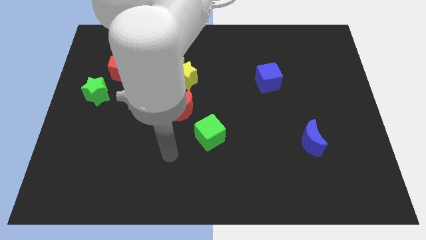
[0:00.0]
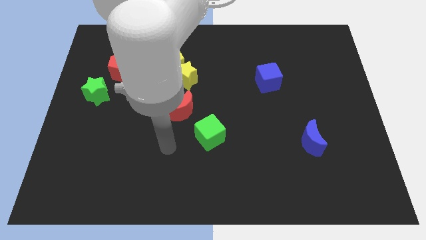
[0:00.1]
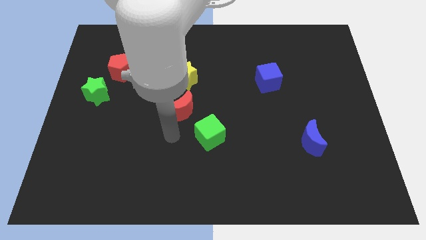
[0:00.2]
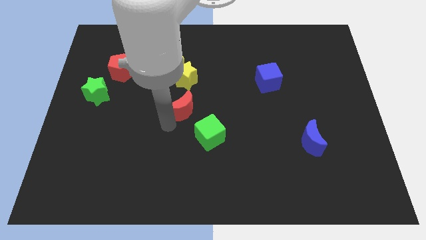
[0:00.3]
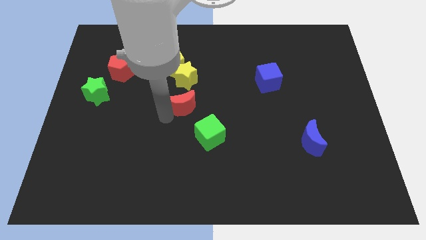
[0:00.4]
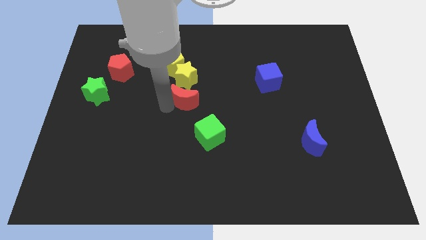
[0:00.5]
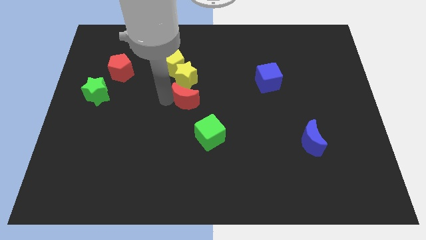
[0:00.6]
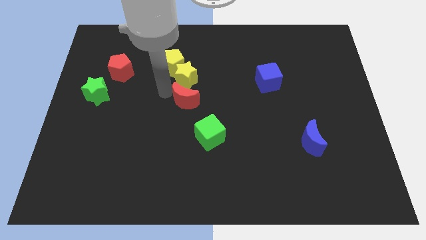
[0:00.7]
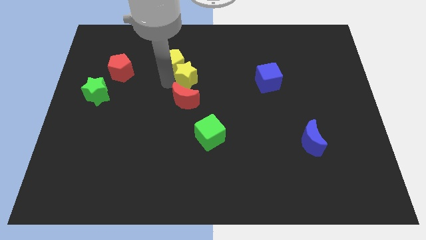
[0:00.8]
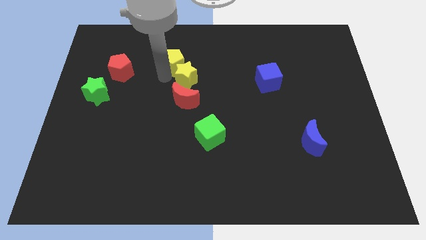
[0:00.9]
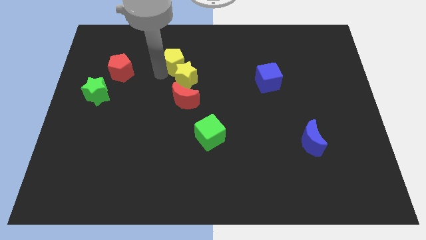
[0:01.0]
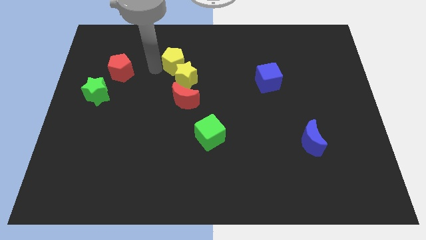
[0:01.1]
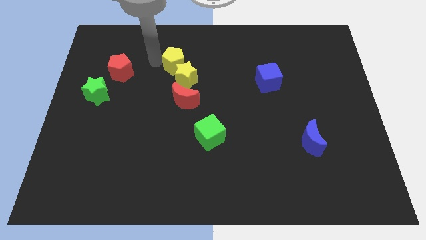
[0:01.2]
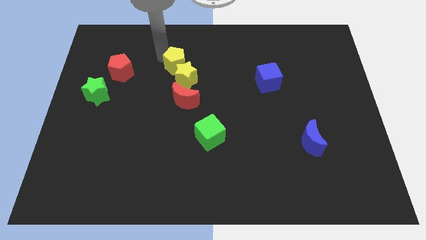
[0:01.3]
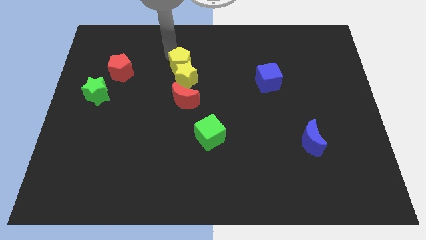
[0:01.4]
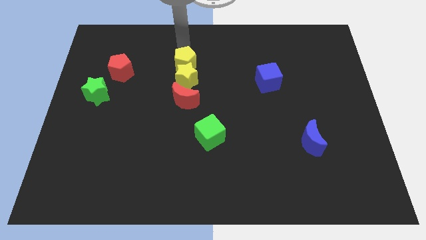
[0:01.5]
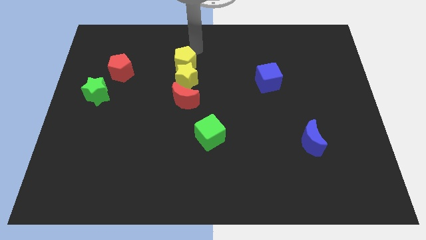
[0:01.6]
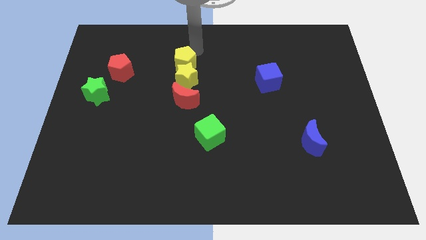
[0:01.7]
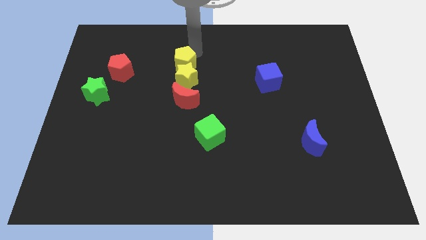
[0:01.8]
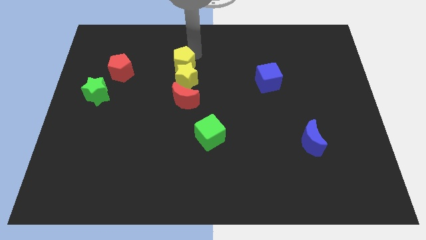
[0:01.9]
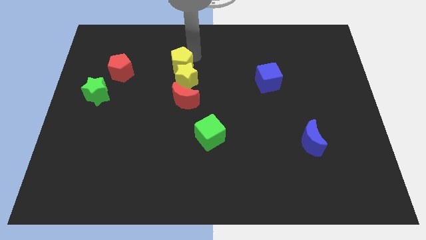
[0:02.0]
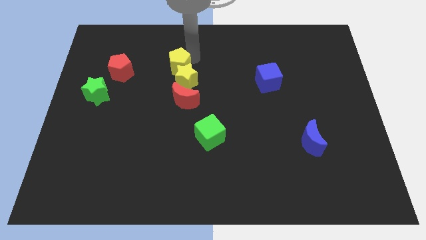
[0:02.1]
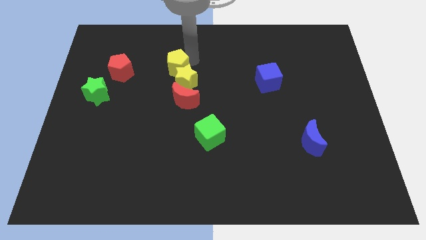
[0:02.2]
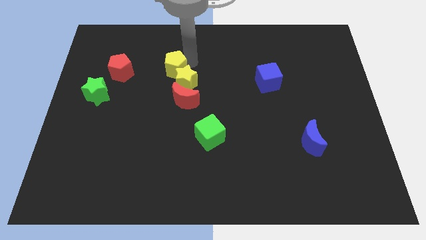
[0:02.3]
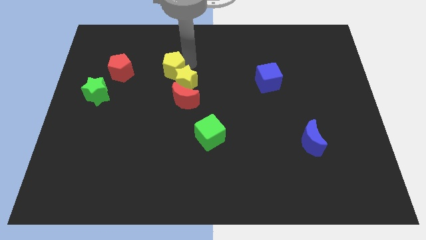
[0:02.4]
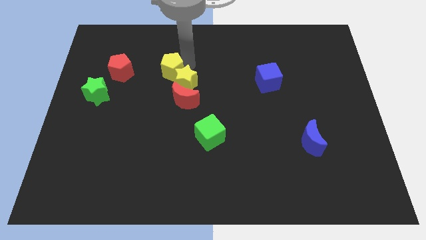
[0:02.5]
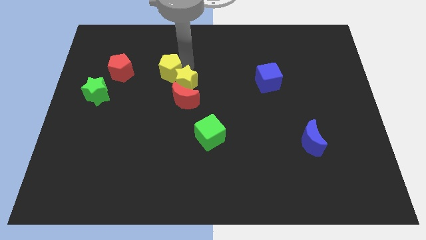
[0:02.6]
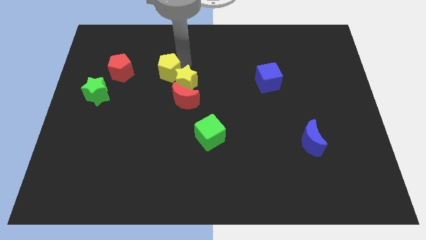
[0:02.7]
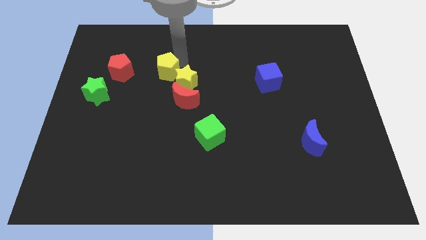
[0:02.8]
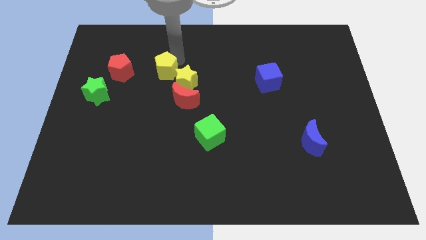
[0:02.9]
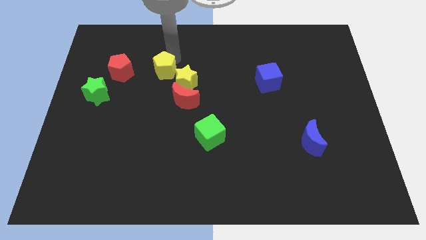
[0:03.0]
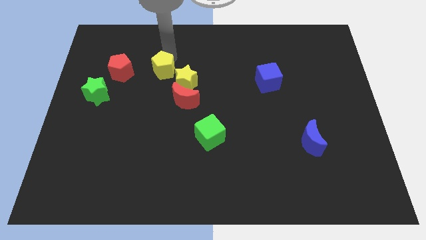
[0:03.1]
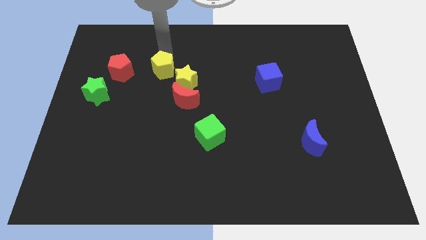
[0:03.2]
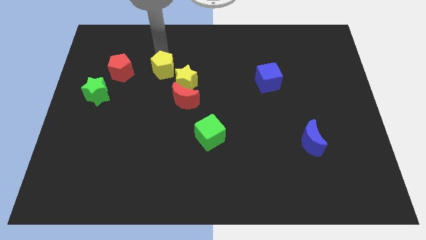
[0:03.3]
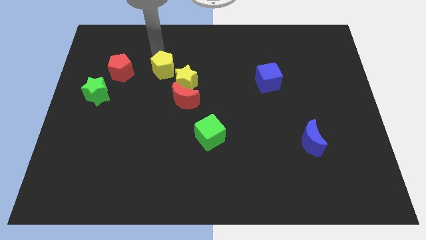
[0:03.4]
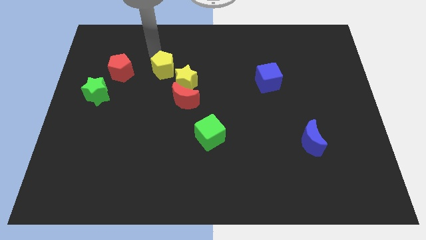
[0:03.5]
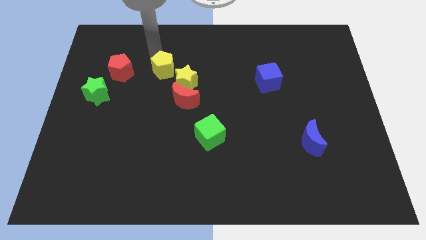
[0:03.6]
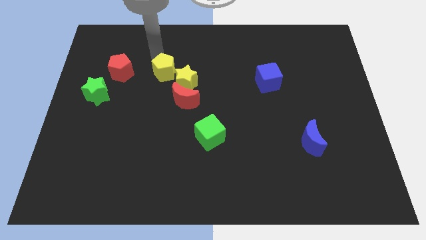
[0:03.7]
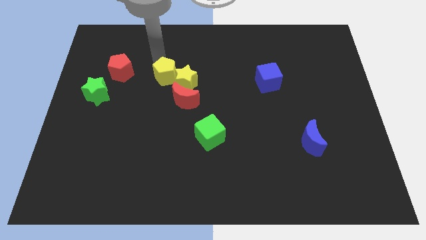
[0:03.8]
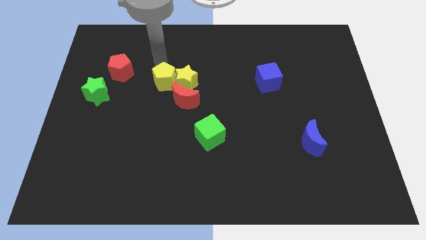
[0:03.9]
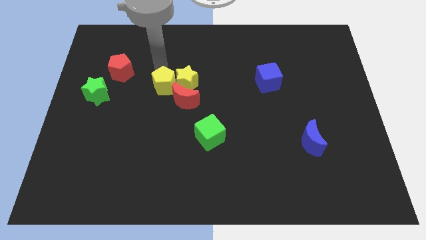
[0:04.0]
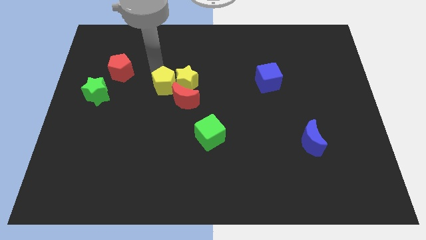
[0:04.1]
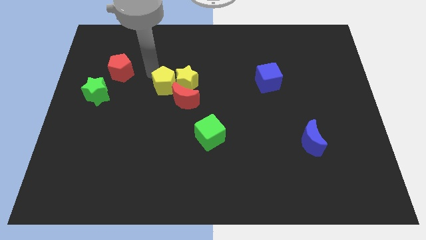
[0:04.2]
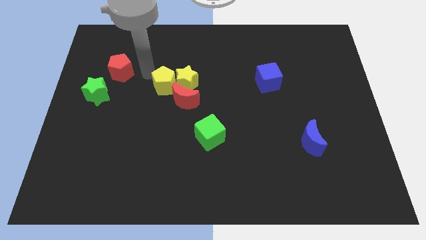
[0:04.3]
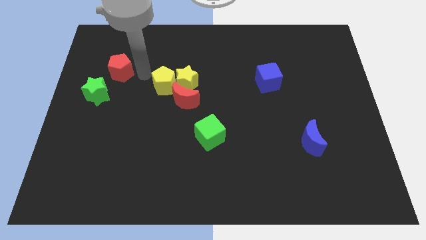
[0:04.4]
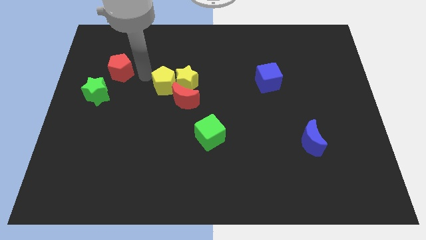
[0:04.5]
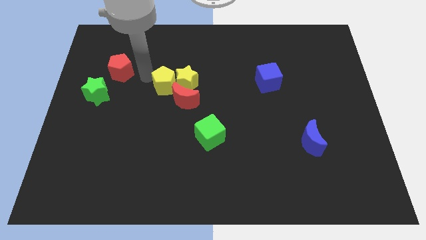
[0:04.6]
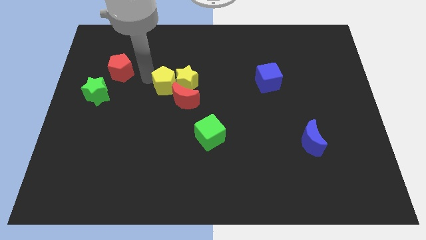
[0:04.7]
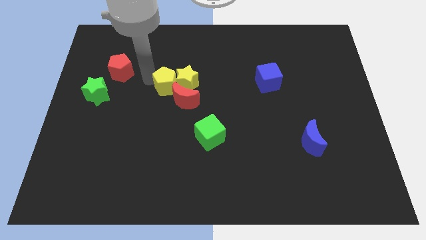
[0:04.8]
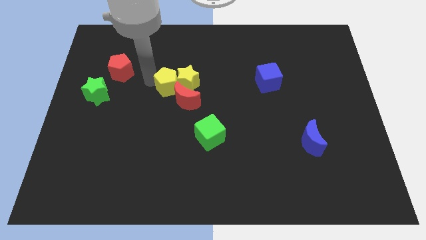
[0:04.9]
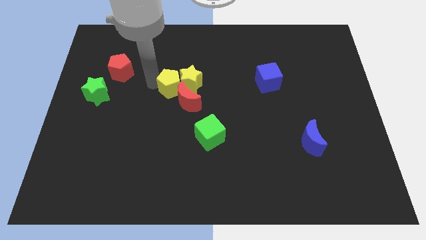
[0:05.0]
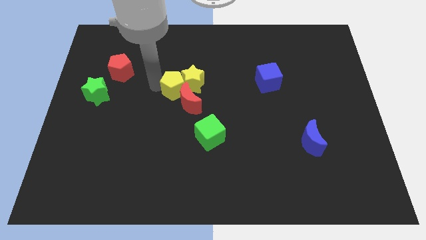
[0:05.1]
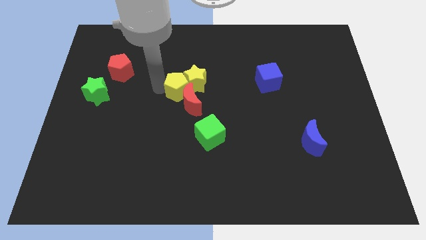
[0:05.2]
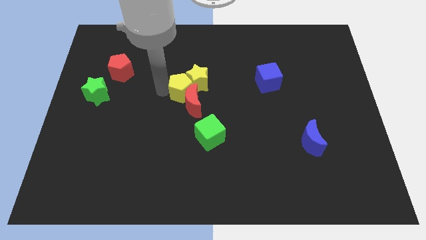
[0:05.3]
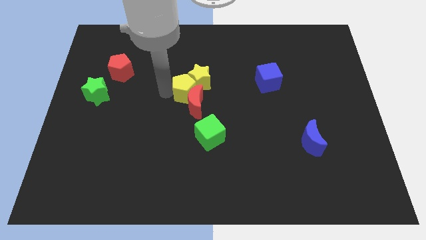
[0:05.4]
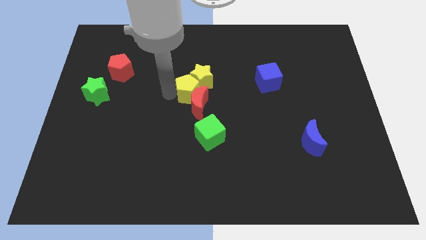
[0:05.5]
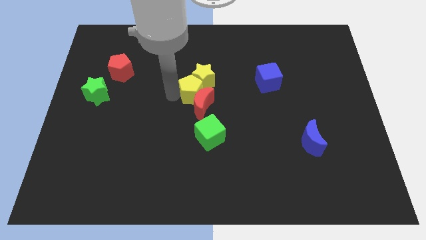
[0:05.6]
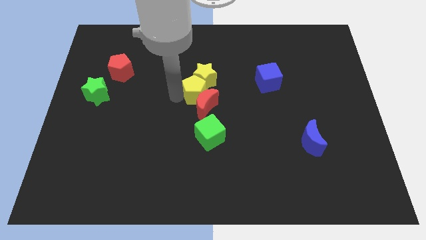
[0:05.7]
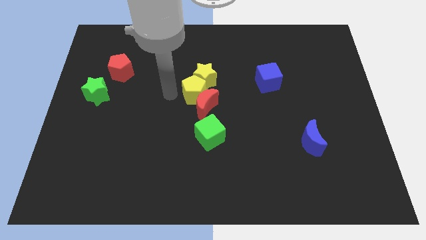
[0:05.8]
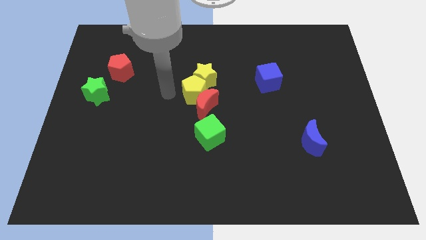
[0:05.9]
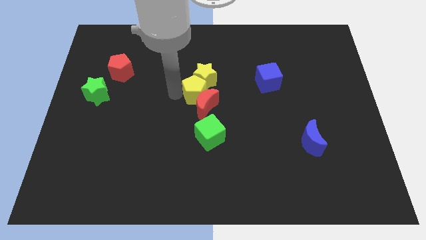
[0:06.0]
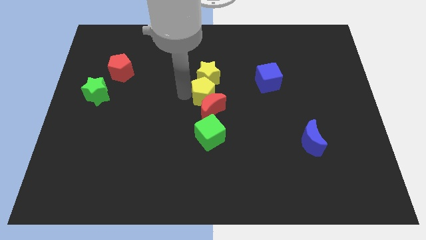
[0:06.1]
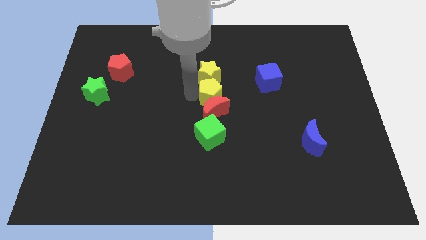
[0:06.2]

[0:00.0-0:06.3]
move the yellow pentagon to the bottom right side of the yellow star
